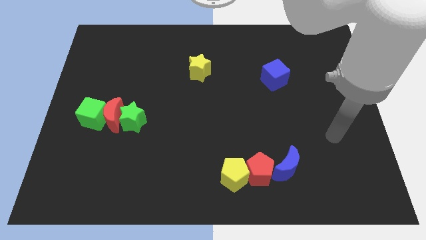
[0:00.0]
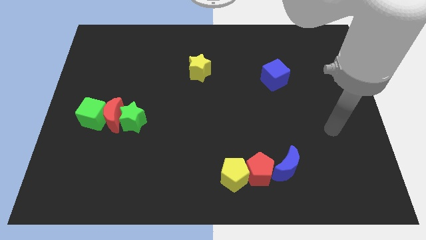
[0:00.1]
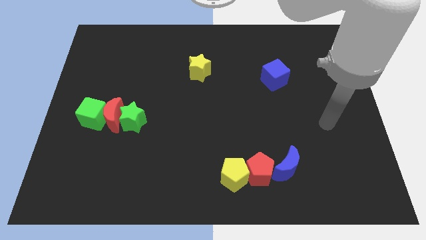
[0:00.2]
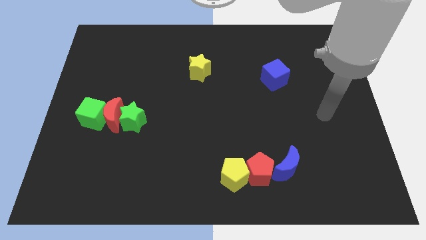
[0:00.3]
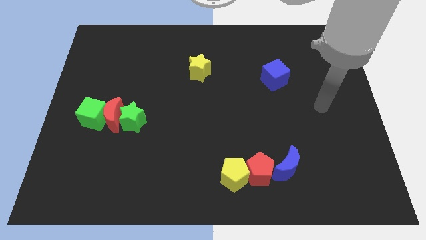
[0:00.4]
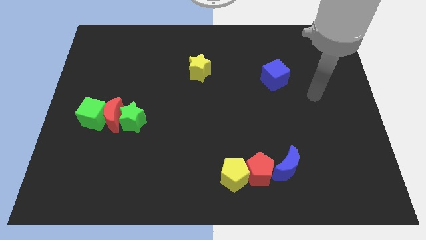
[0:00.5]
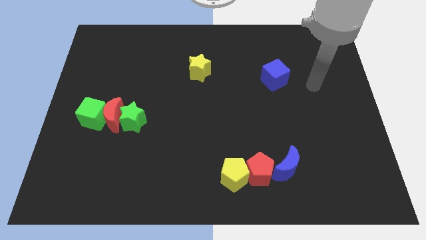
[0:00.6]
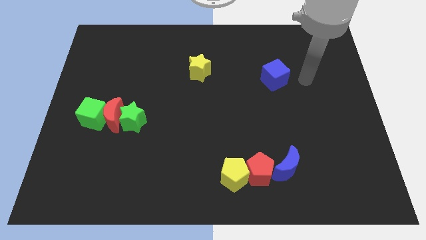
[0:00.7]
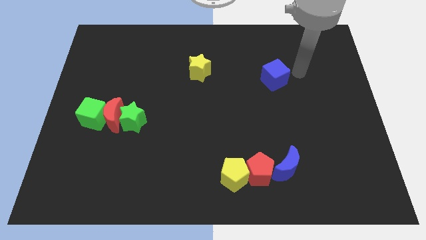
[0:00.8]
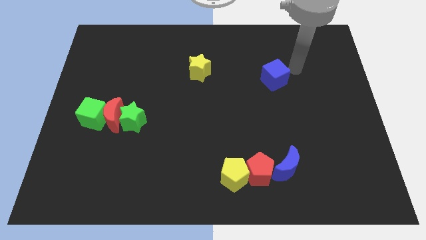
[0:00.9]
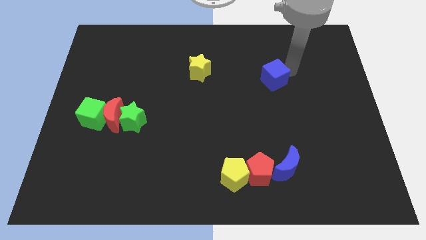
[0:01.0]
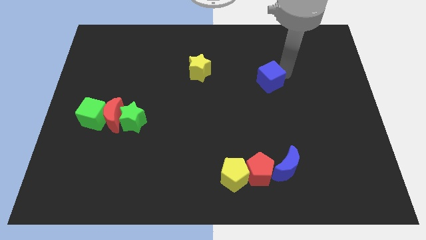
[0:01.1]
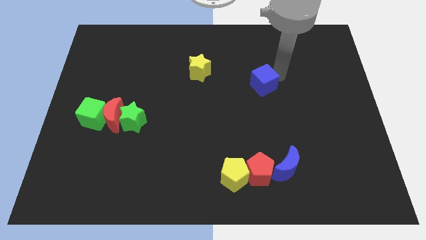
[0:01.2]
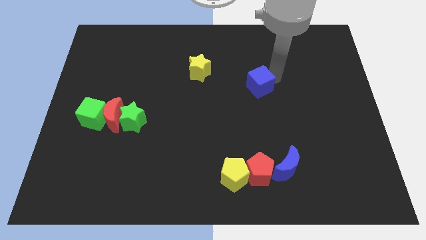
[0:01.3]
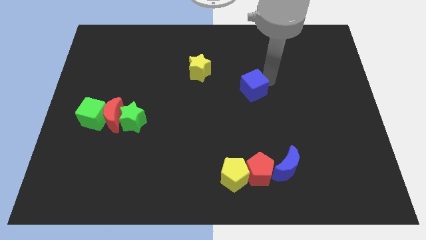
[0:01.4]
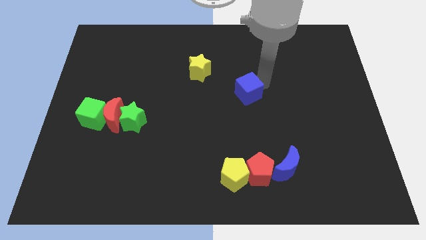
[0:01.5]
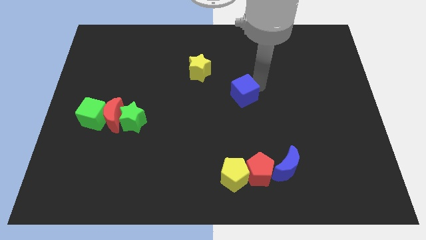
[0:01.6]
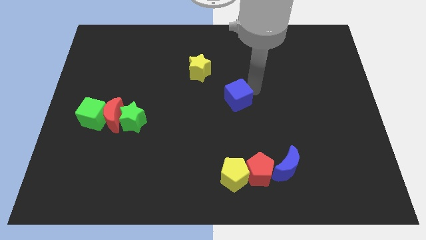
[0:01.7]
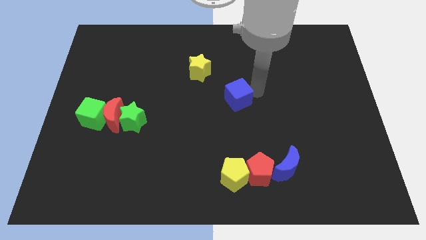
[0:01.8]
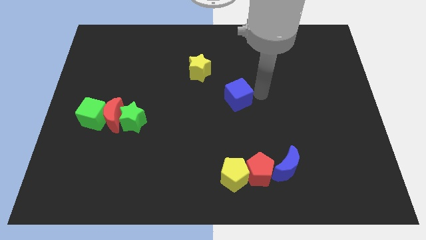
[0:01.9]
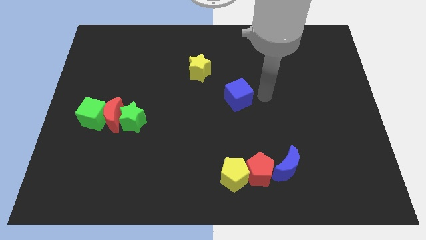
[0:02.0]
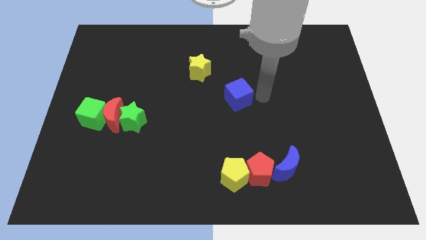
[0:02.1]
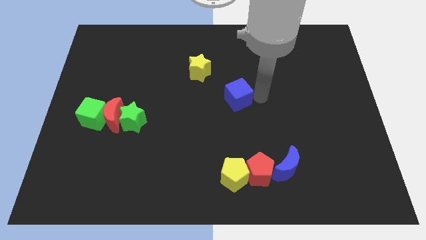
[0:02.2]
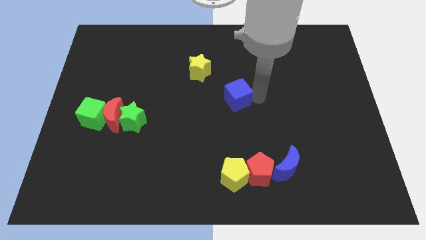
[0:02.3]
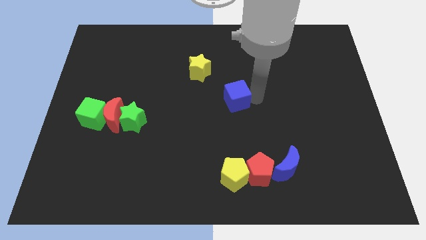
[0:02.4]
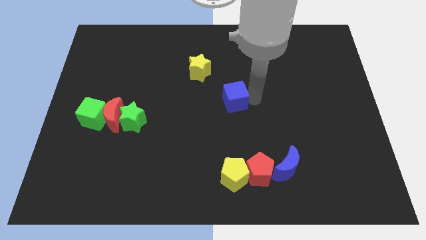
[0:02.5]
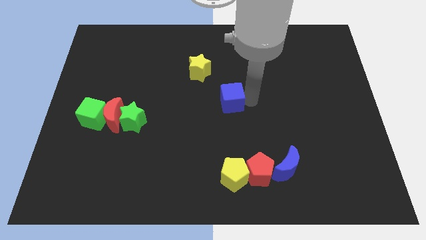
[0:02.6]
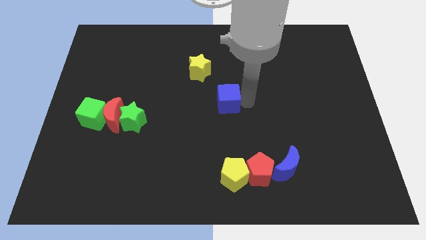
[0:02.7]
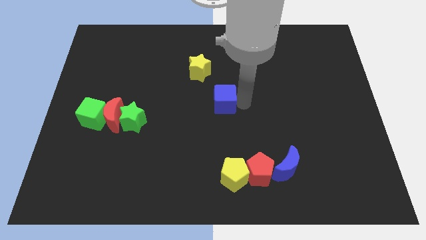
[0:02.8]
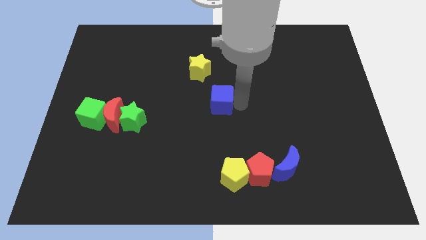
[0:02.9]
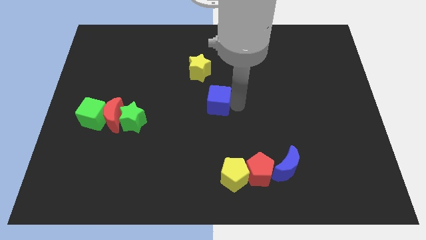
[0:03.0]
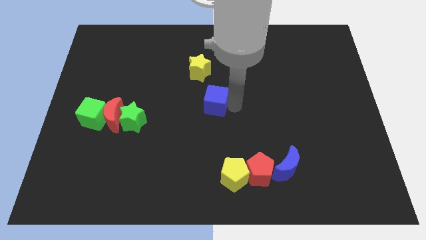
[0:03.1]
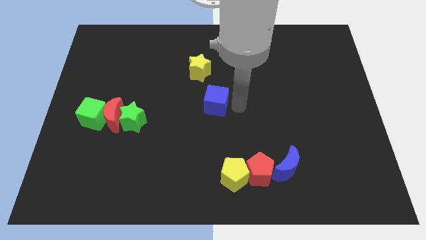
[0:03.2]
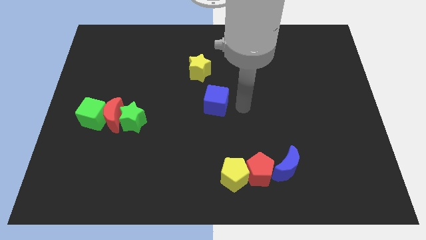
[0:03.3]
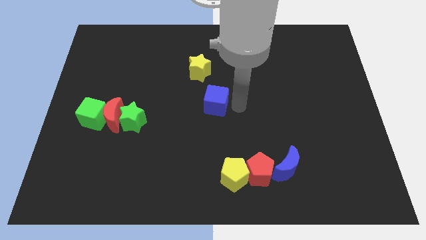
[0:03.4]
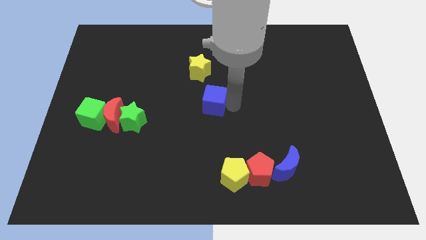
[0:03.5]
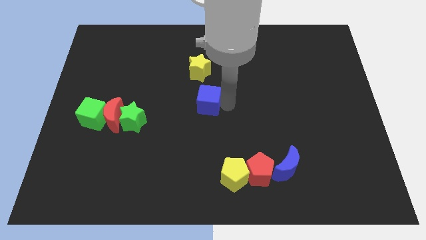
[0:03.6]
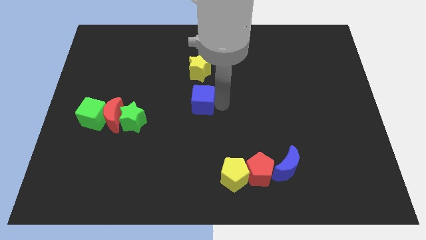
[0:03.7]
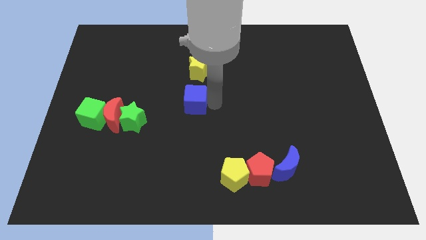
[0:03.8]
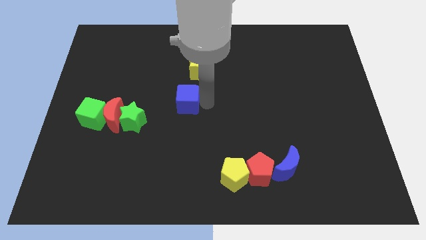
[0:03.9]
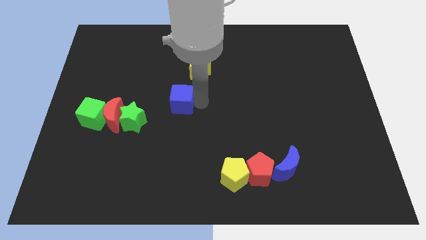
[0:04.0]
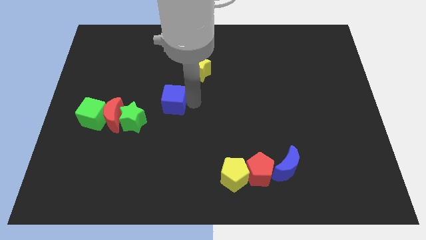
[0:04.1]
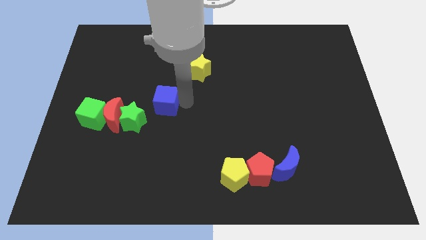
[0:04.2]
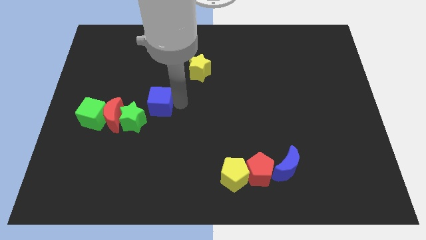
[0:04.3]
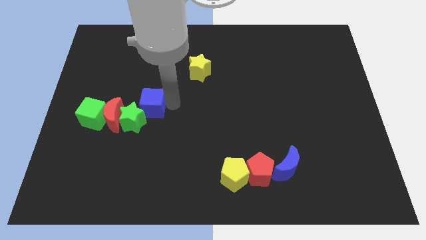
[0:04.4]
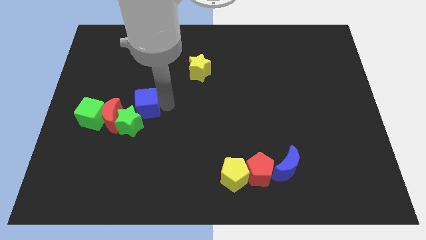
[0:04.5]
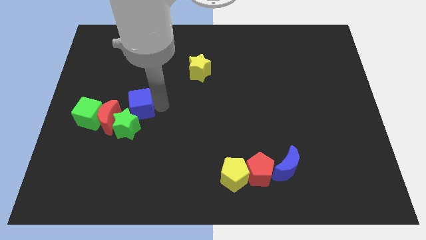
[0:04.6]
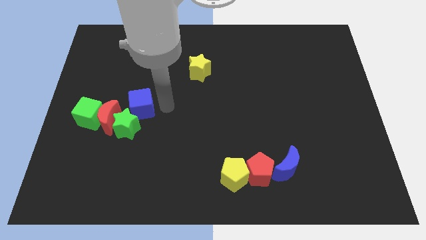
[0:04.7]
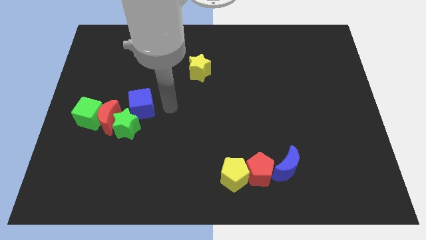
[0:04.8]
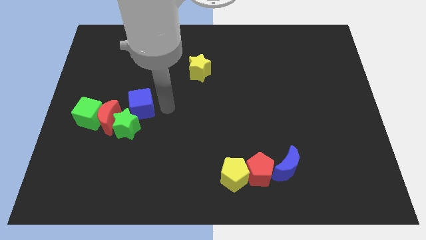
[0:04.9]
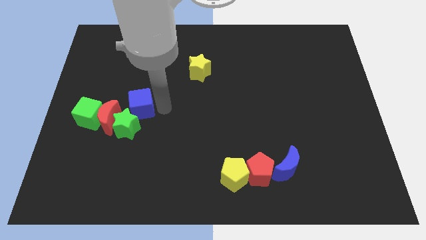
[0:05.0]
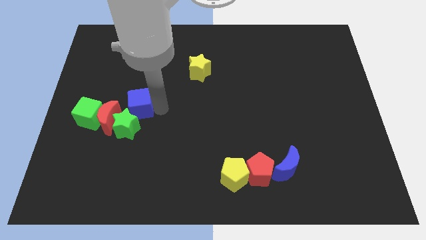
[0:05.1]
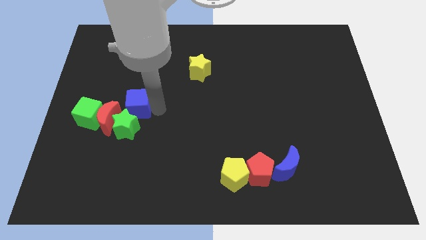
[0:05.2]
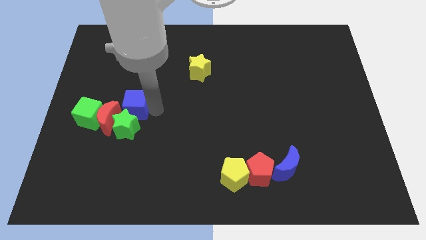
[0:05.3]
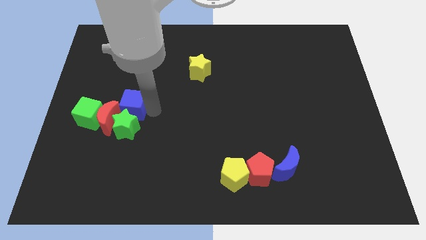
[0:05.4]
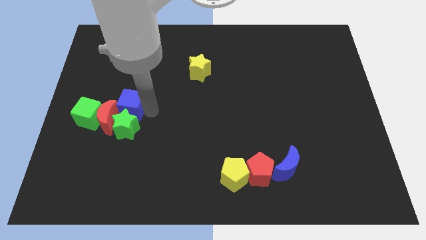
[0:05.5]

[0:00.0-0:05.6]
move the blue cube next to the red moon

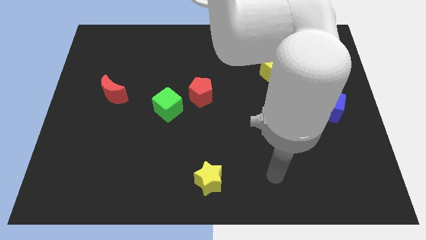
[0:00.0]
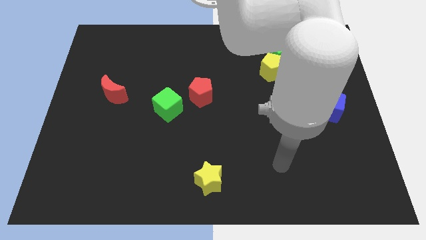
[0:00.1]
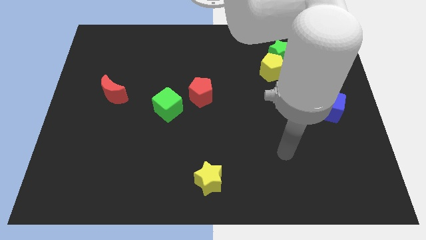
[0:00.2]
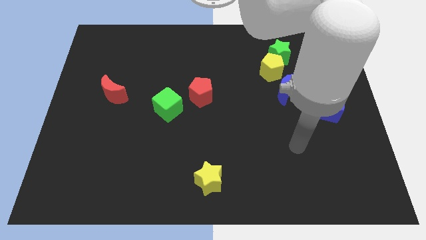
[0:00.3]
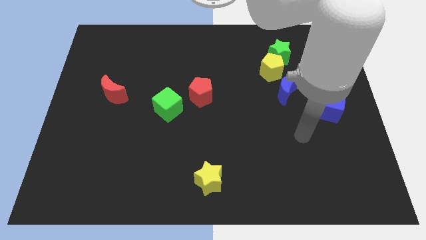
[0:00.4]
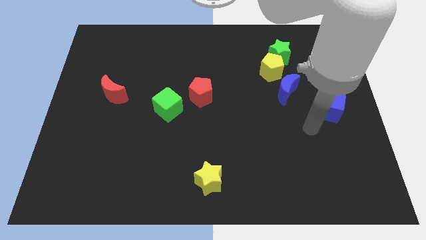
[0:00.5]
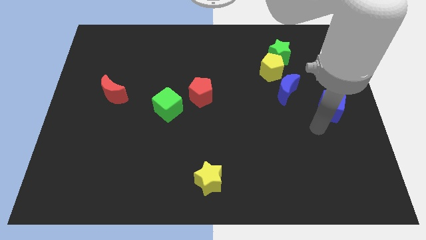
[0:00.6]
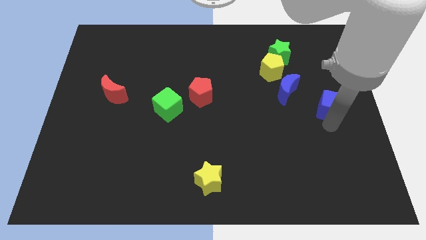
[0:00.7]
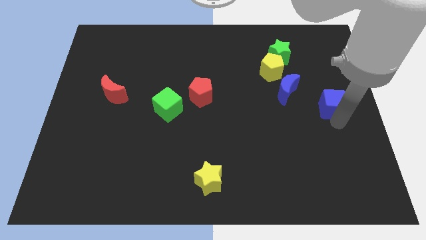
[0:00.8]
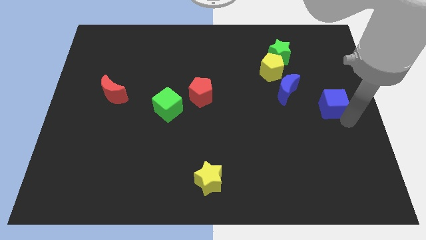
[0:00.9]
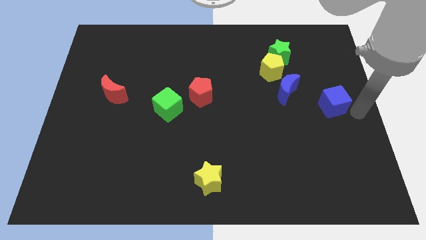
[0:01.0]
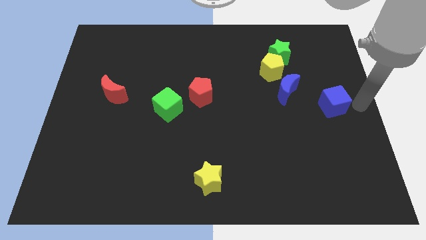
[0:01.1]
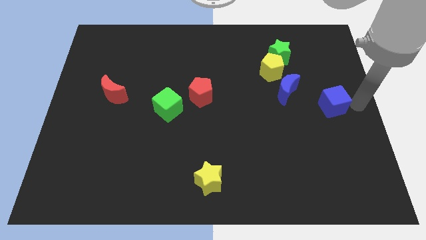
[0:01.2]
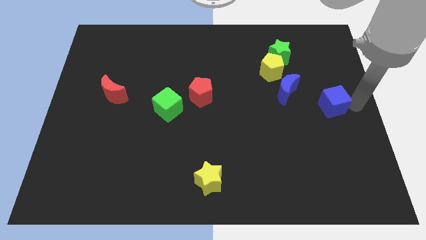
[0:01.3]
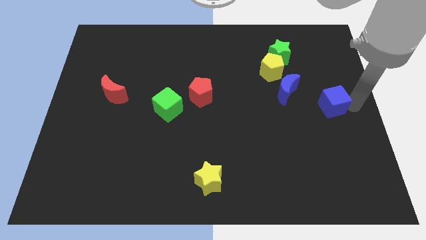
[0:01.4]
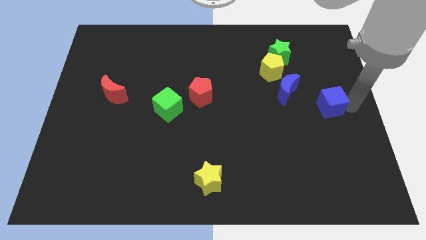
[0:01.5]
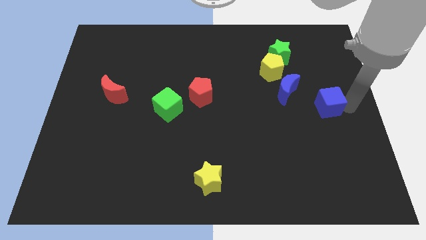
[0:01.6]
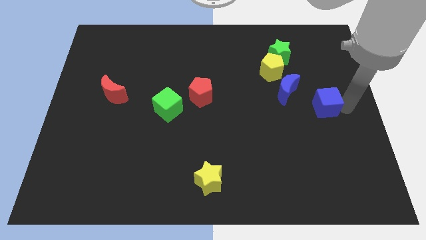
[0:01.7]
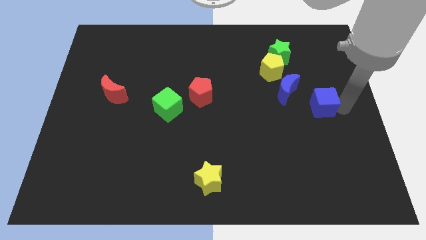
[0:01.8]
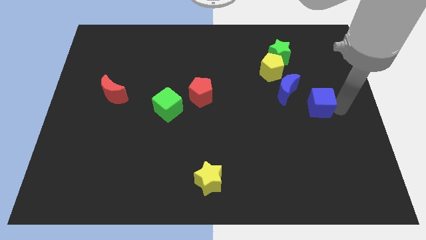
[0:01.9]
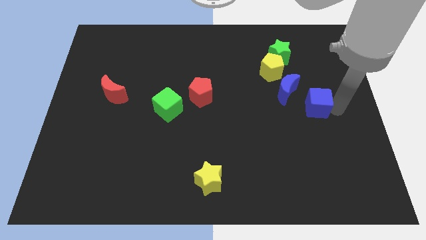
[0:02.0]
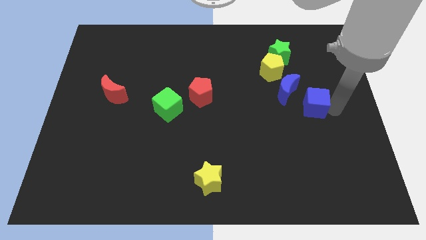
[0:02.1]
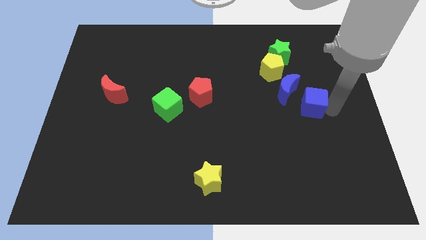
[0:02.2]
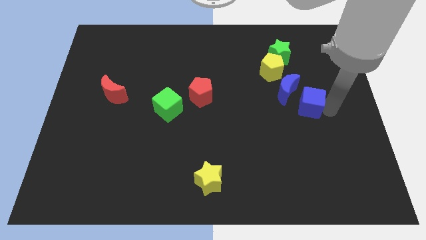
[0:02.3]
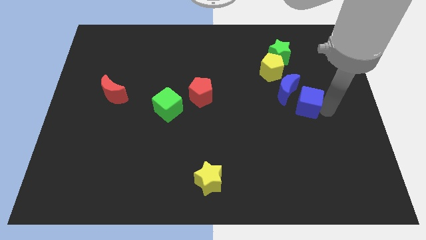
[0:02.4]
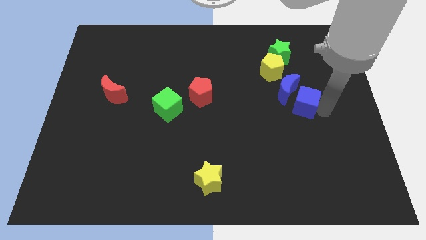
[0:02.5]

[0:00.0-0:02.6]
slide the blue cube to the blue moon
